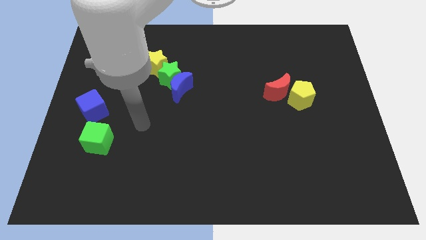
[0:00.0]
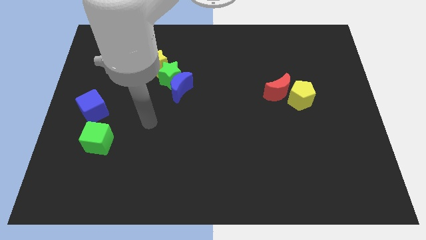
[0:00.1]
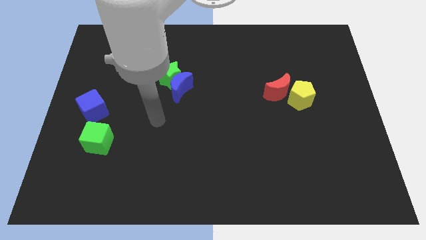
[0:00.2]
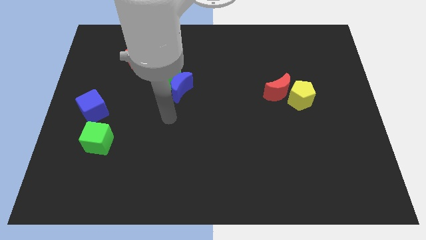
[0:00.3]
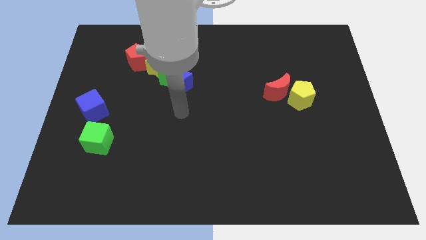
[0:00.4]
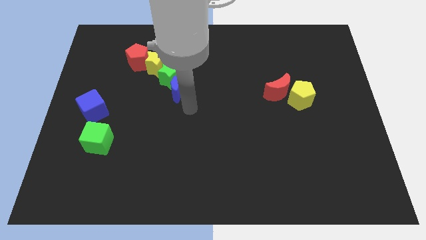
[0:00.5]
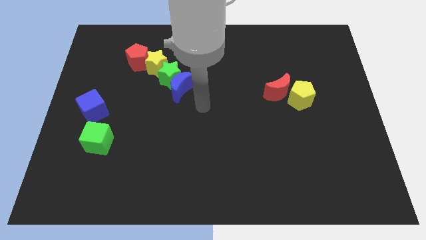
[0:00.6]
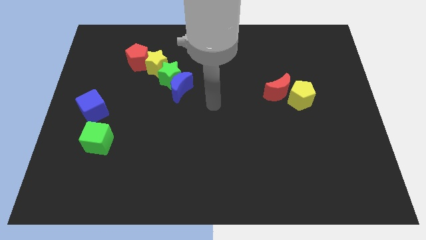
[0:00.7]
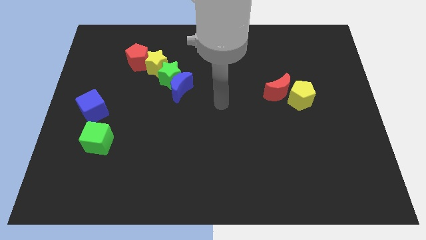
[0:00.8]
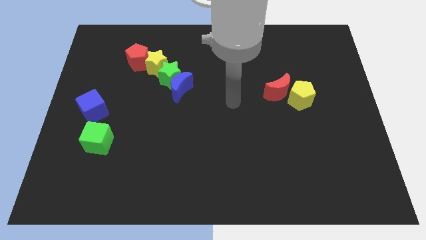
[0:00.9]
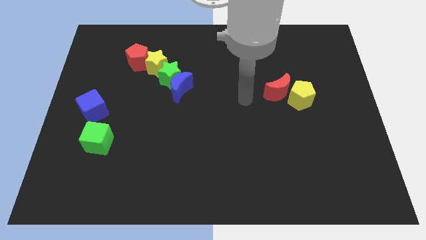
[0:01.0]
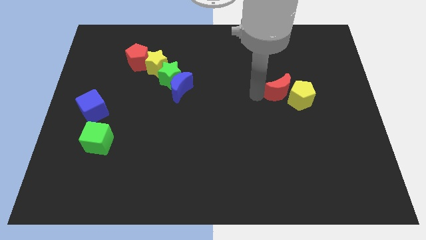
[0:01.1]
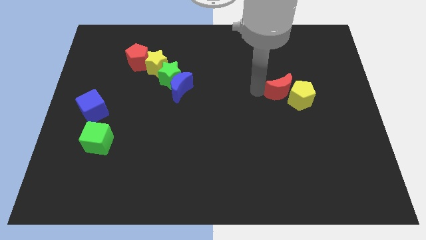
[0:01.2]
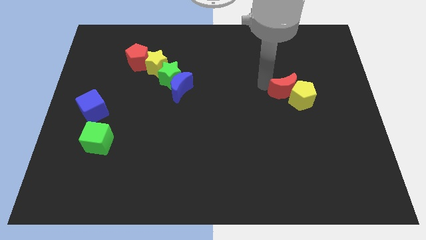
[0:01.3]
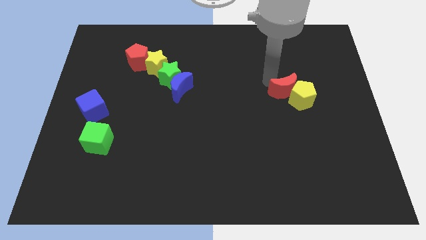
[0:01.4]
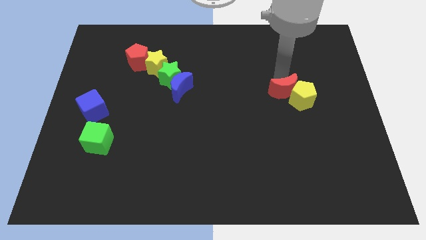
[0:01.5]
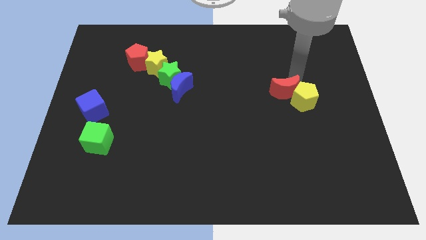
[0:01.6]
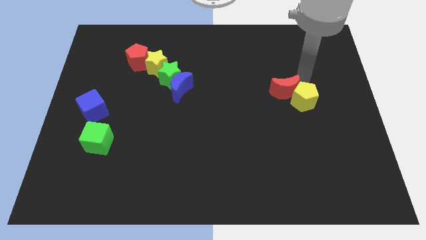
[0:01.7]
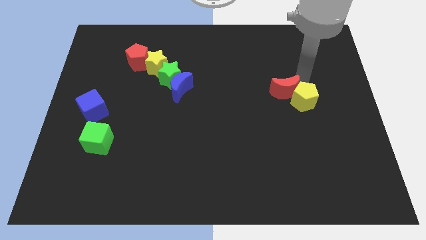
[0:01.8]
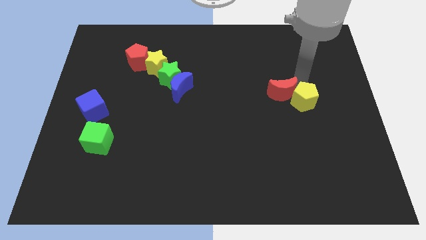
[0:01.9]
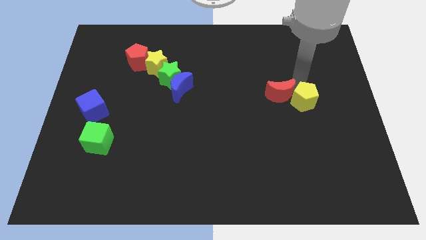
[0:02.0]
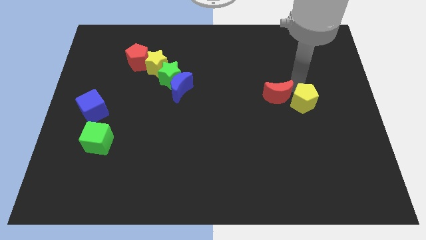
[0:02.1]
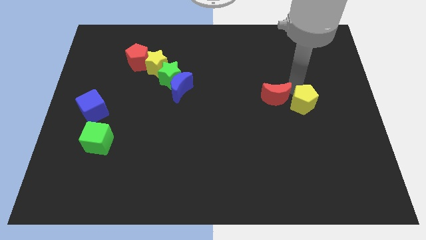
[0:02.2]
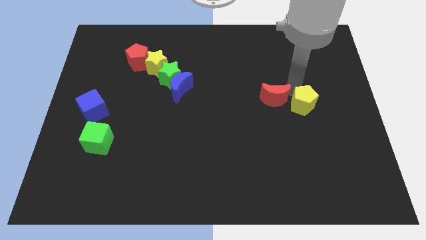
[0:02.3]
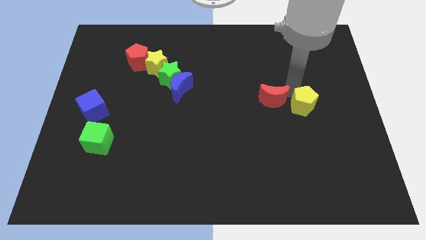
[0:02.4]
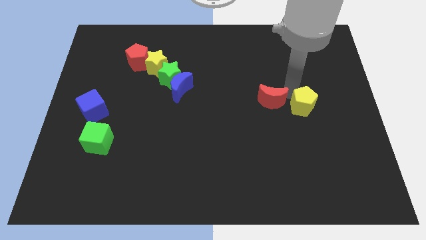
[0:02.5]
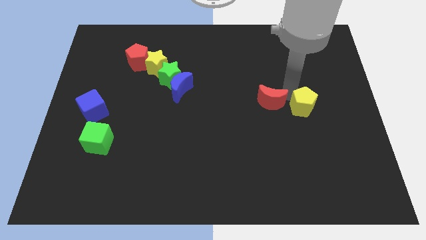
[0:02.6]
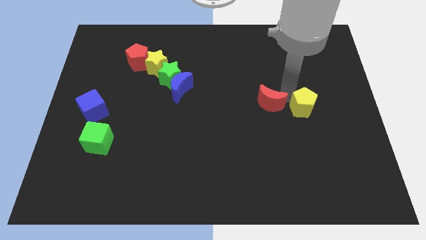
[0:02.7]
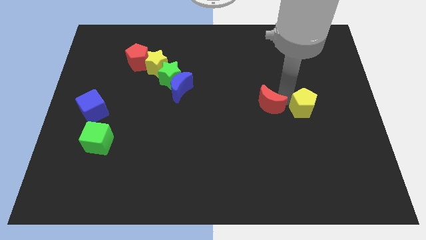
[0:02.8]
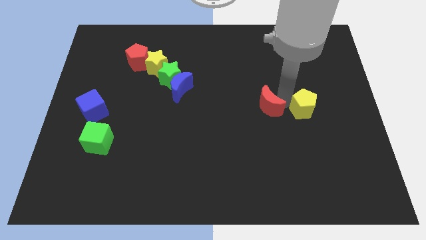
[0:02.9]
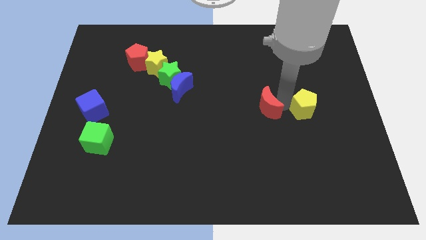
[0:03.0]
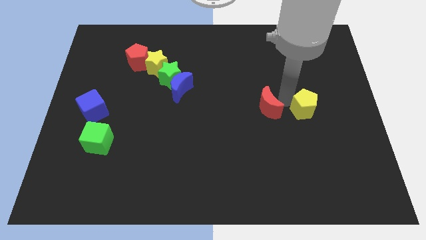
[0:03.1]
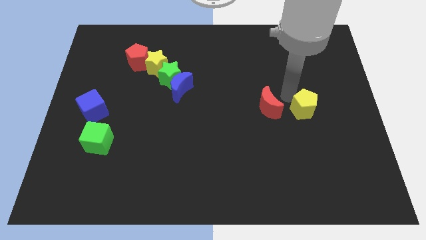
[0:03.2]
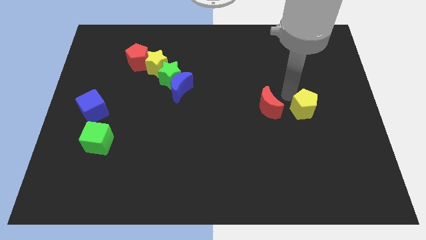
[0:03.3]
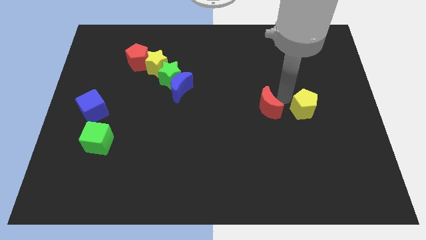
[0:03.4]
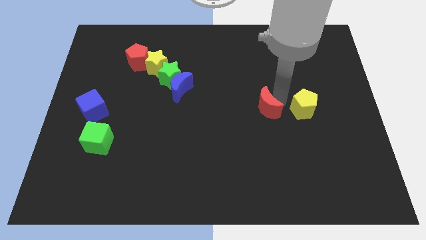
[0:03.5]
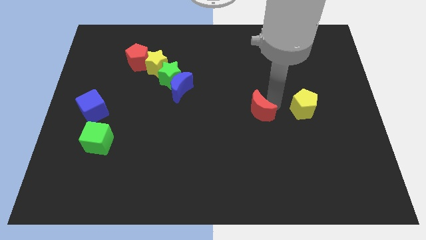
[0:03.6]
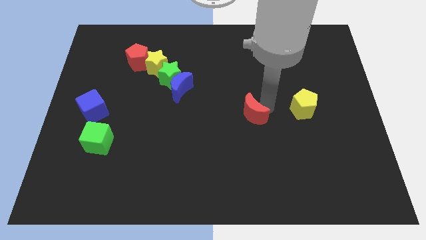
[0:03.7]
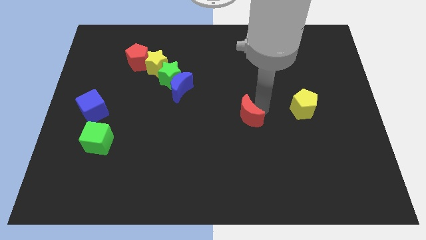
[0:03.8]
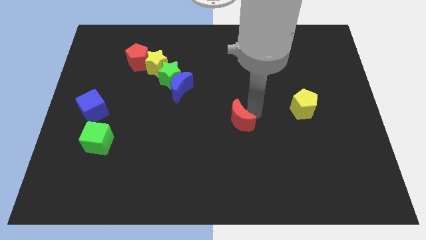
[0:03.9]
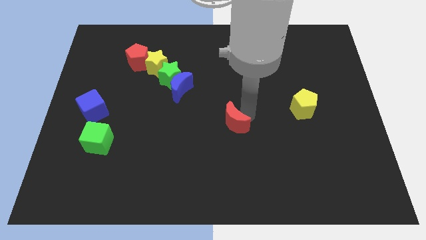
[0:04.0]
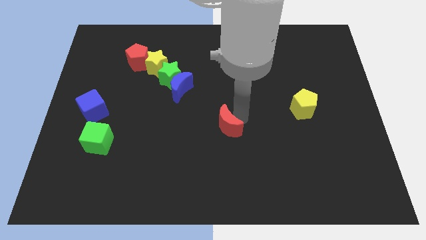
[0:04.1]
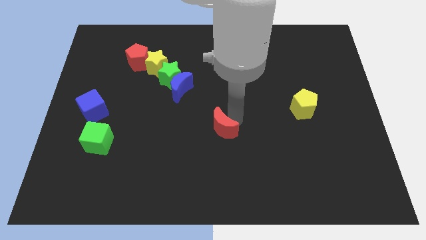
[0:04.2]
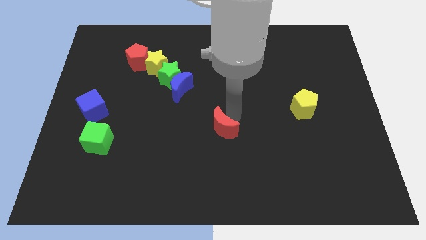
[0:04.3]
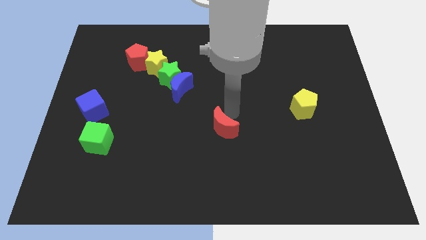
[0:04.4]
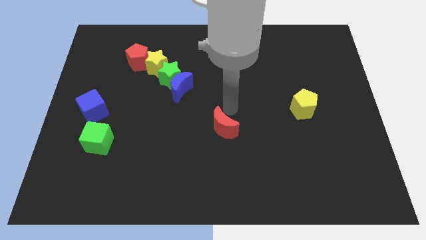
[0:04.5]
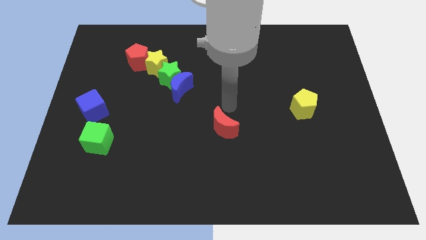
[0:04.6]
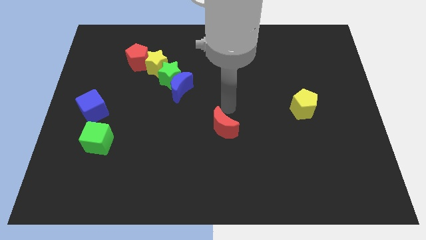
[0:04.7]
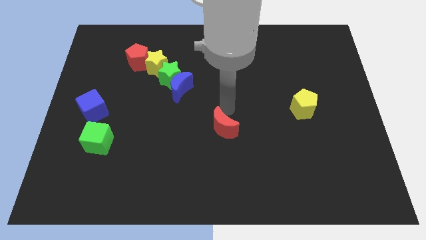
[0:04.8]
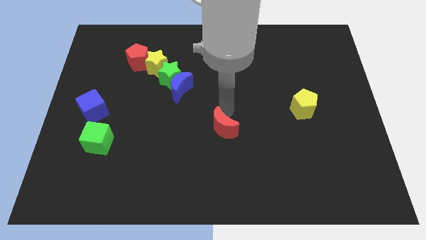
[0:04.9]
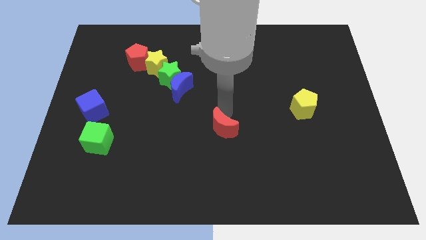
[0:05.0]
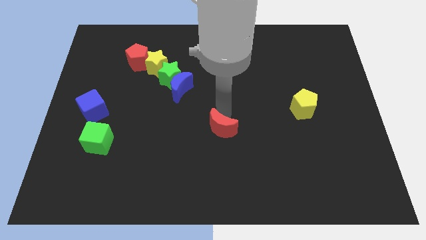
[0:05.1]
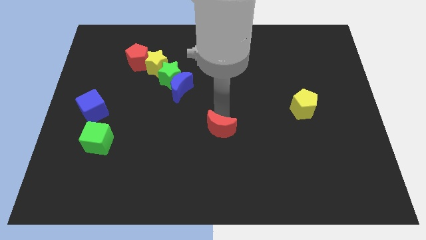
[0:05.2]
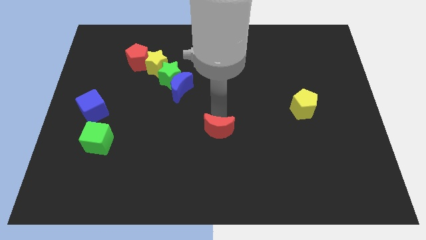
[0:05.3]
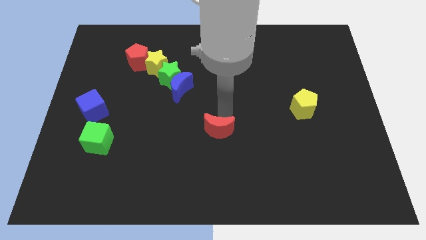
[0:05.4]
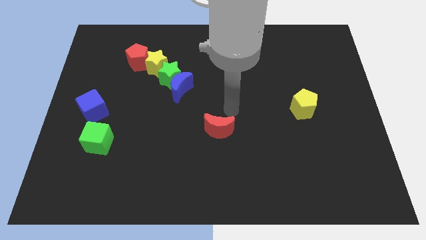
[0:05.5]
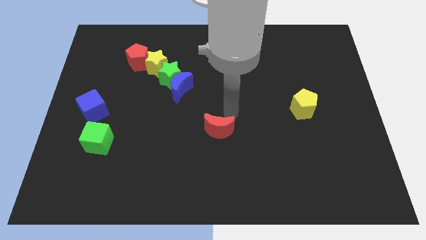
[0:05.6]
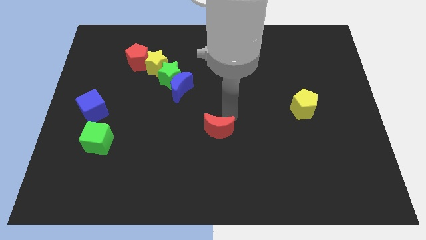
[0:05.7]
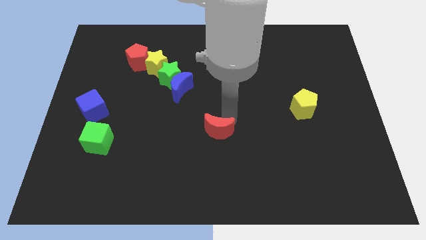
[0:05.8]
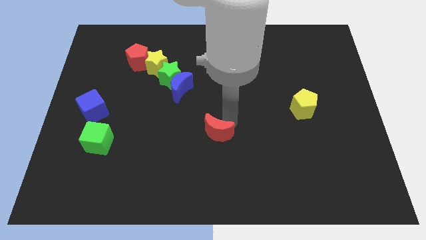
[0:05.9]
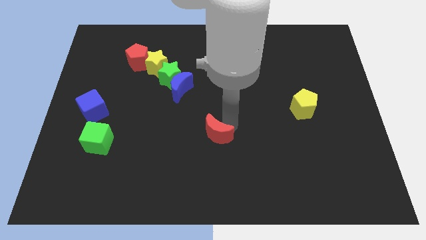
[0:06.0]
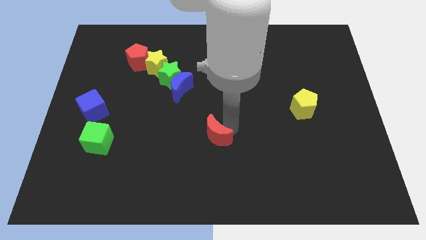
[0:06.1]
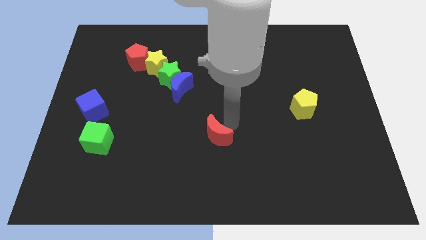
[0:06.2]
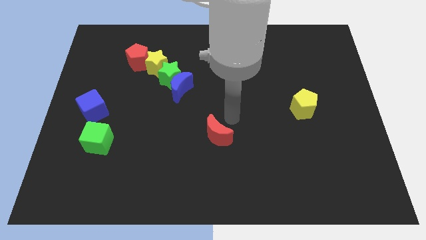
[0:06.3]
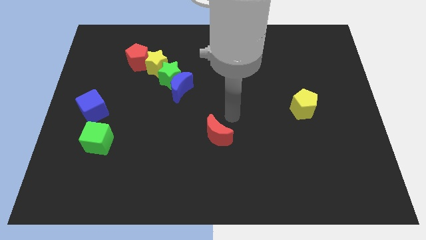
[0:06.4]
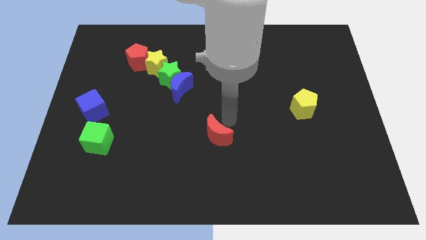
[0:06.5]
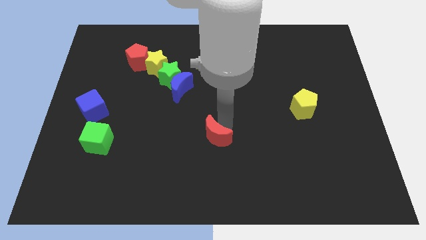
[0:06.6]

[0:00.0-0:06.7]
push the red moon diagonally down and left

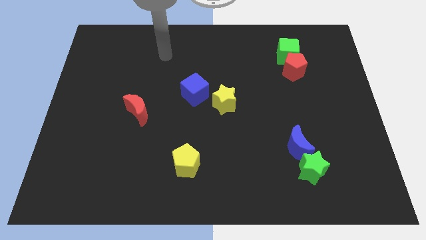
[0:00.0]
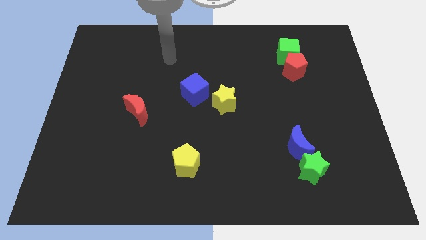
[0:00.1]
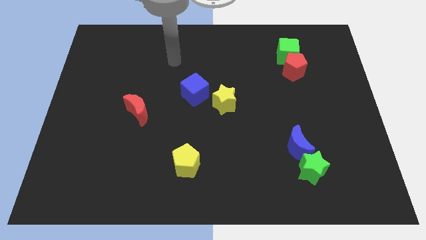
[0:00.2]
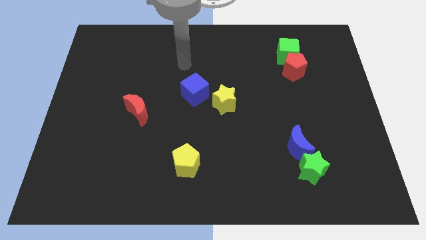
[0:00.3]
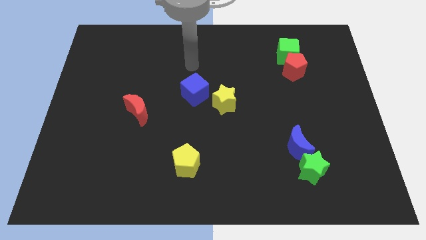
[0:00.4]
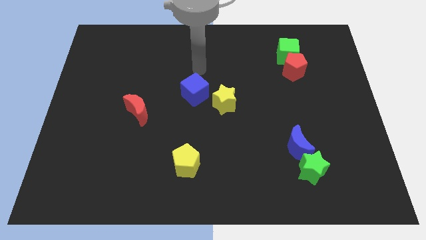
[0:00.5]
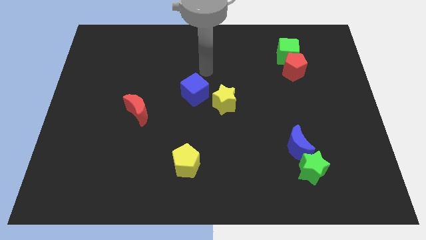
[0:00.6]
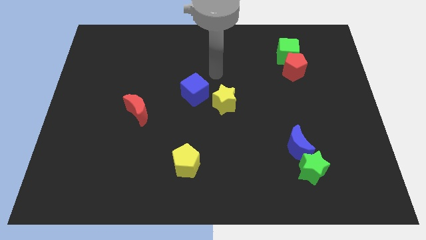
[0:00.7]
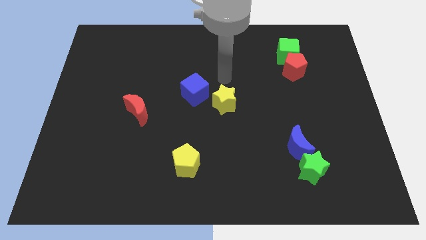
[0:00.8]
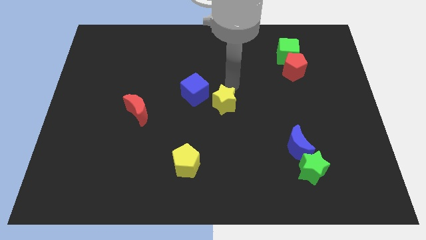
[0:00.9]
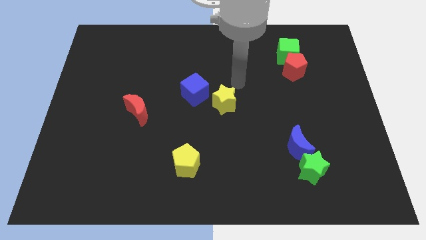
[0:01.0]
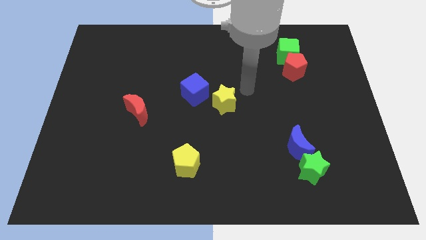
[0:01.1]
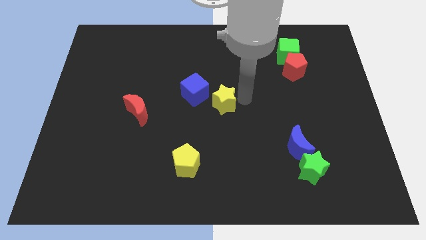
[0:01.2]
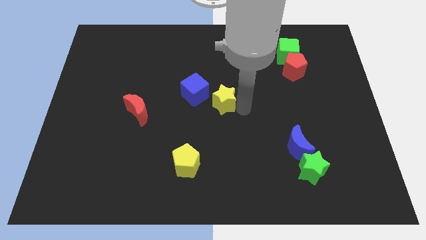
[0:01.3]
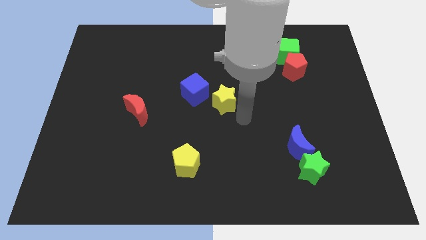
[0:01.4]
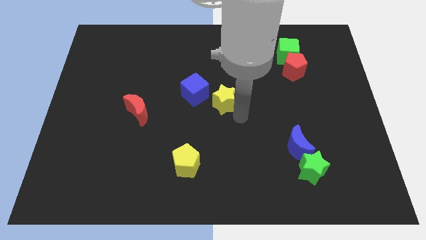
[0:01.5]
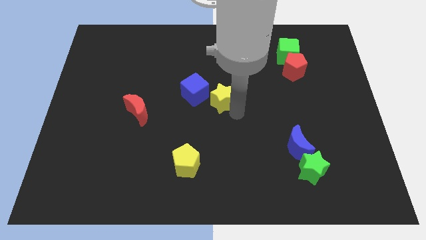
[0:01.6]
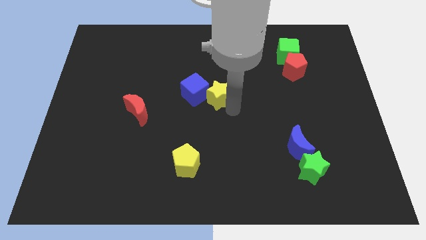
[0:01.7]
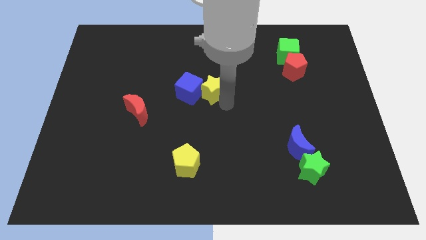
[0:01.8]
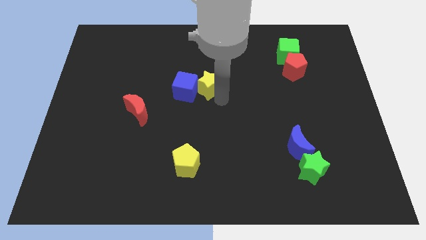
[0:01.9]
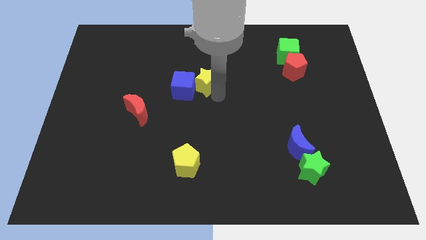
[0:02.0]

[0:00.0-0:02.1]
slightly push the yellow star diagonally upwards and left
